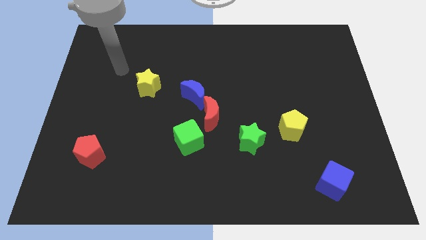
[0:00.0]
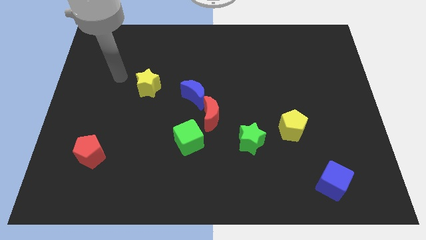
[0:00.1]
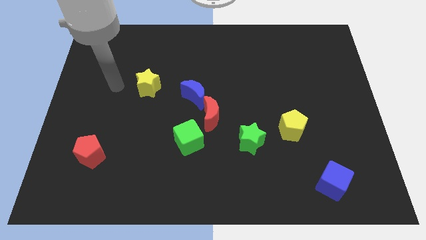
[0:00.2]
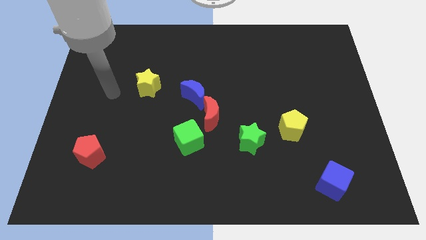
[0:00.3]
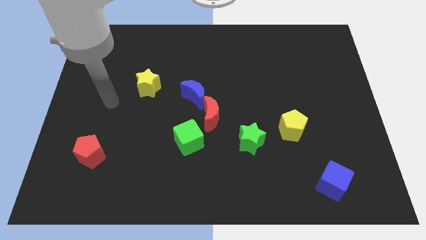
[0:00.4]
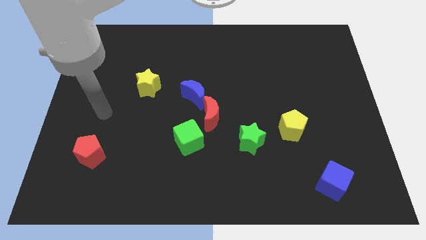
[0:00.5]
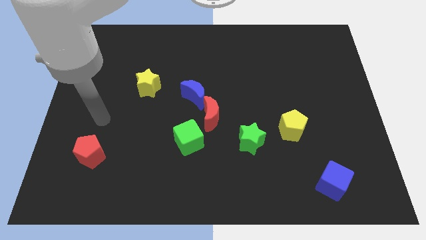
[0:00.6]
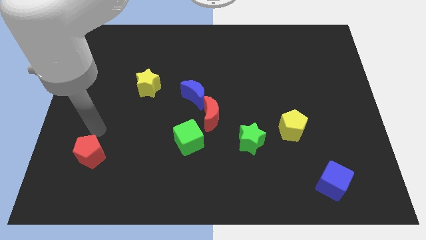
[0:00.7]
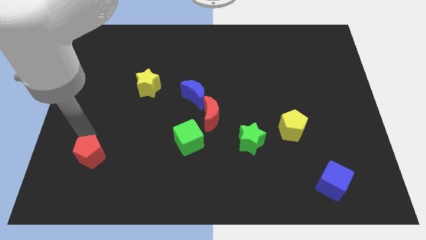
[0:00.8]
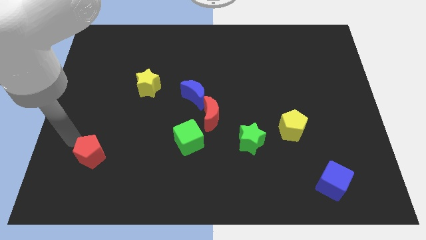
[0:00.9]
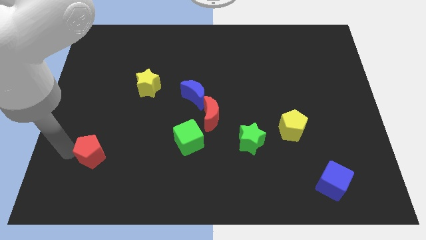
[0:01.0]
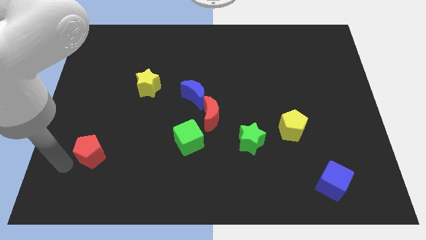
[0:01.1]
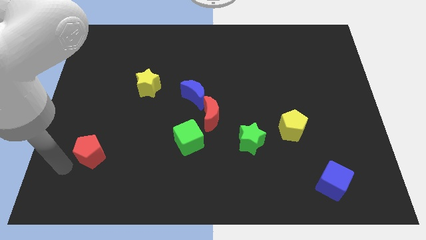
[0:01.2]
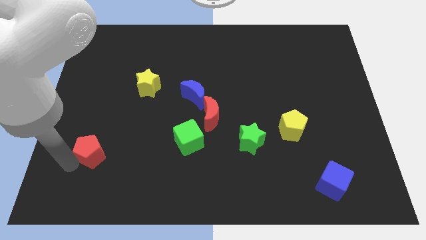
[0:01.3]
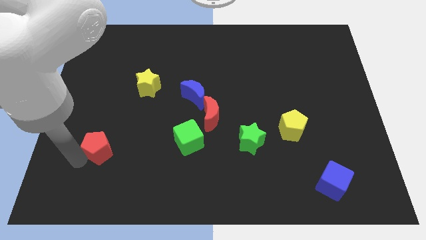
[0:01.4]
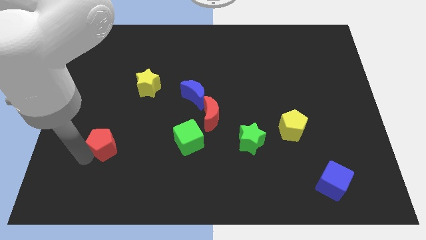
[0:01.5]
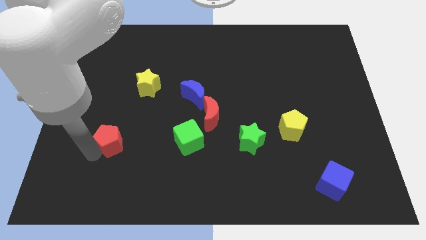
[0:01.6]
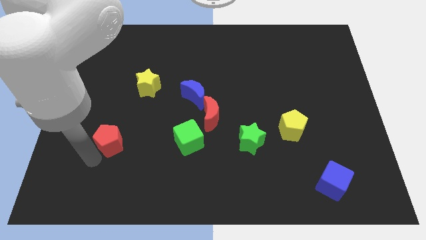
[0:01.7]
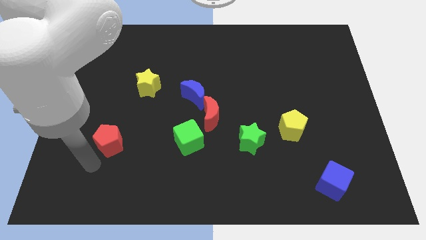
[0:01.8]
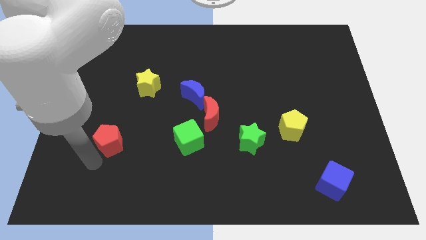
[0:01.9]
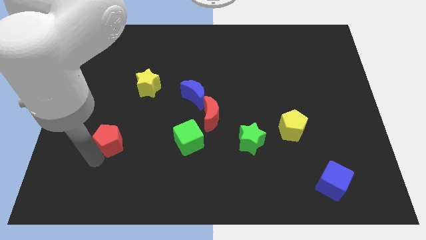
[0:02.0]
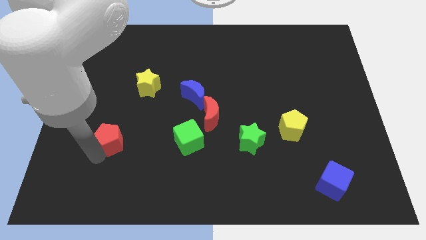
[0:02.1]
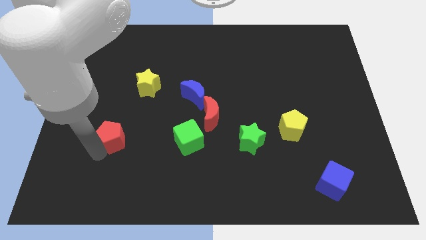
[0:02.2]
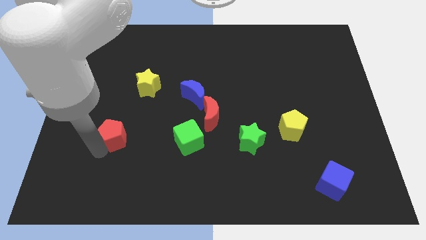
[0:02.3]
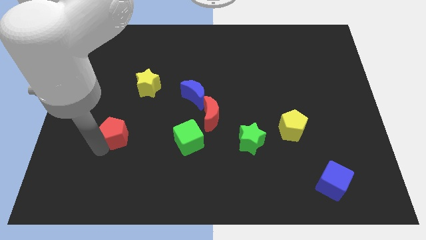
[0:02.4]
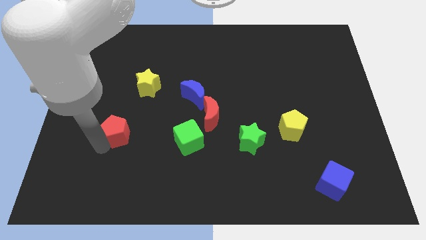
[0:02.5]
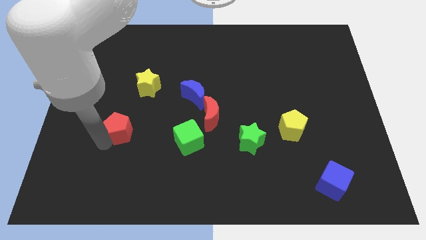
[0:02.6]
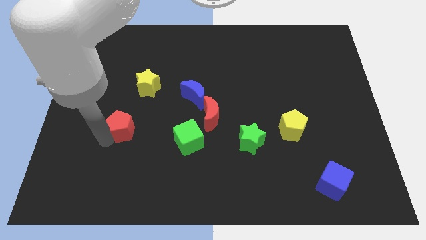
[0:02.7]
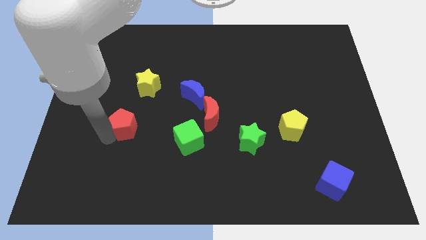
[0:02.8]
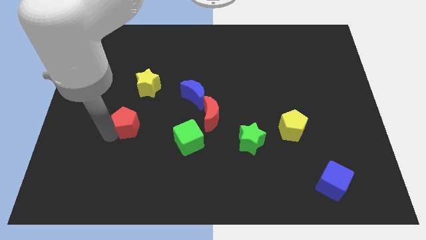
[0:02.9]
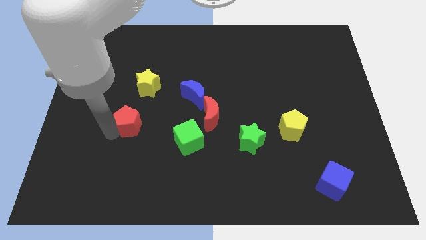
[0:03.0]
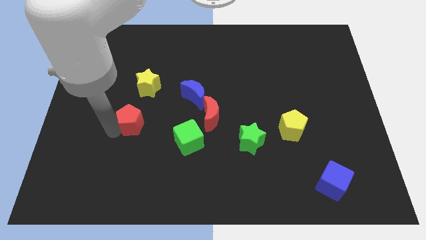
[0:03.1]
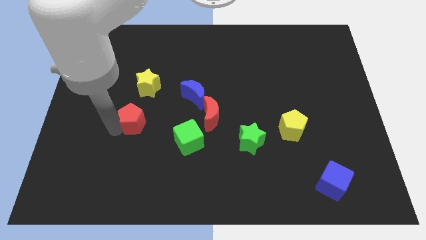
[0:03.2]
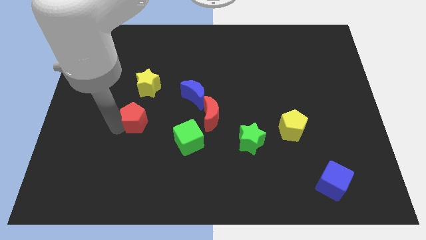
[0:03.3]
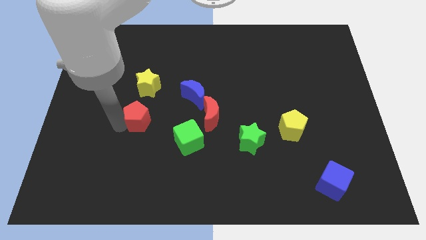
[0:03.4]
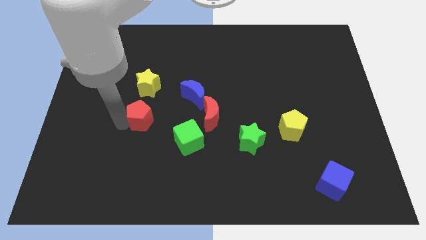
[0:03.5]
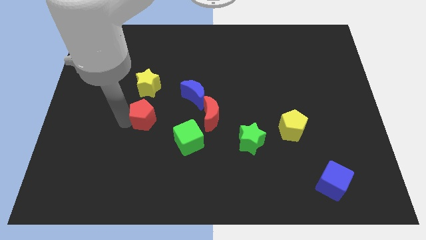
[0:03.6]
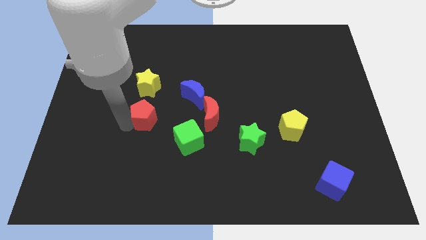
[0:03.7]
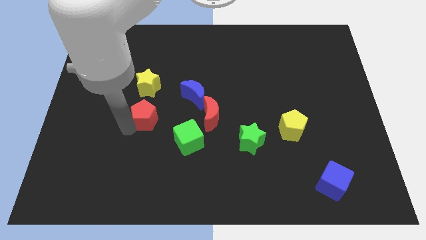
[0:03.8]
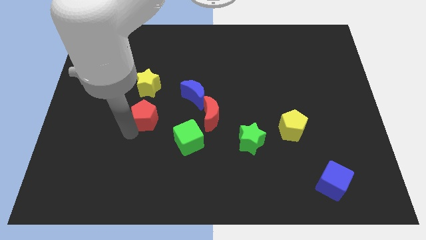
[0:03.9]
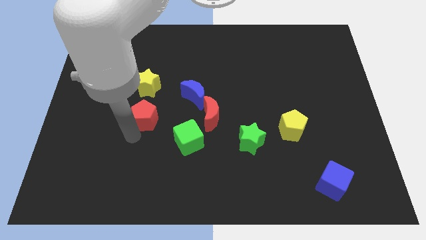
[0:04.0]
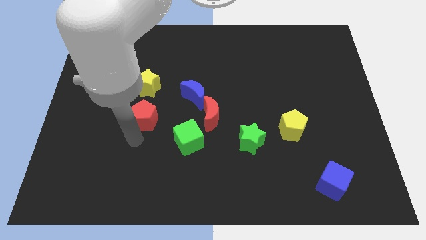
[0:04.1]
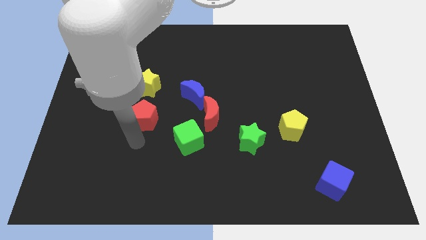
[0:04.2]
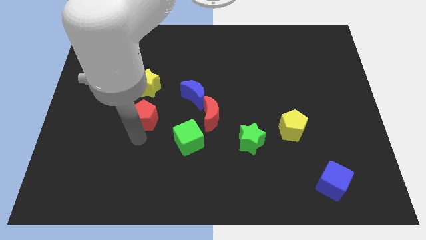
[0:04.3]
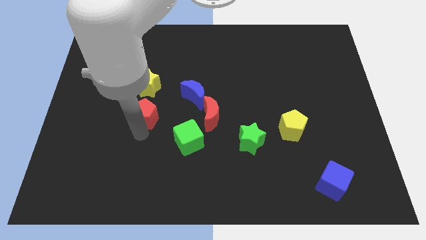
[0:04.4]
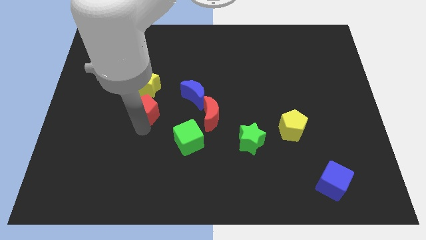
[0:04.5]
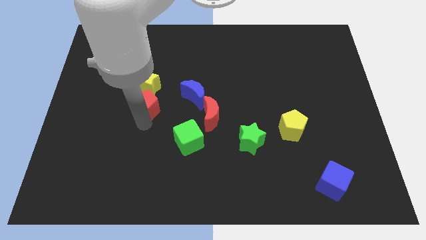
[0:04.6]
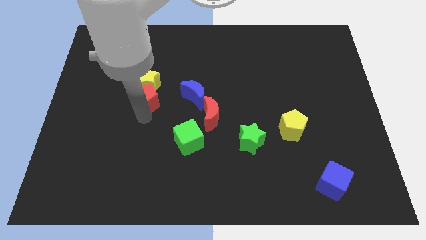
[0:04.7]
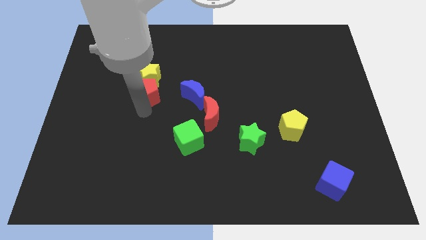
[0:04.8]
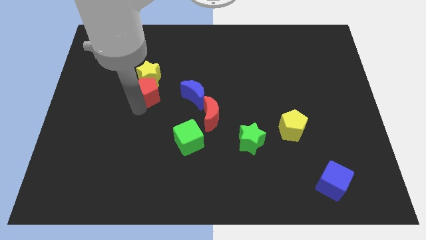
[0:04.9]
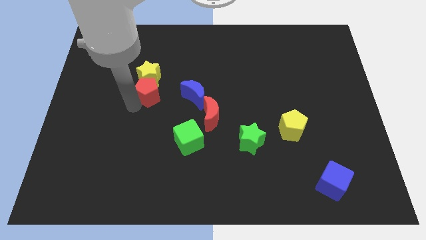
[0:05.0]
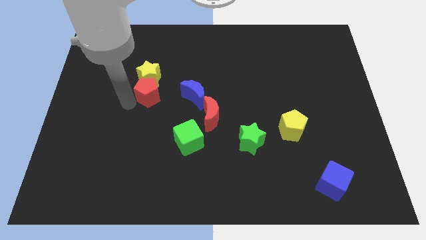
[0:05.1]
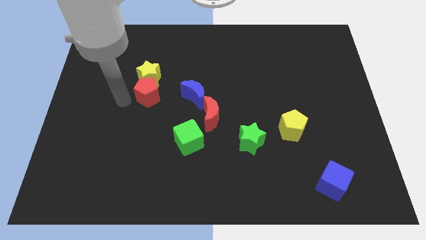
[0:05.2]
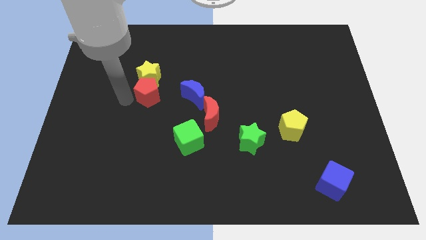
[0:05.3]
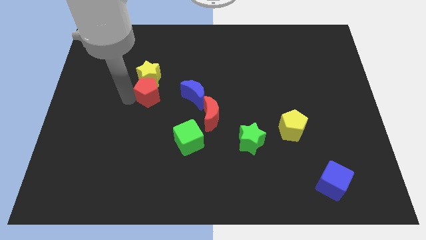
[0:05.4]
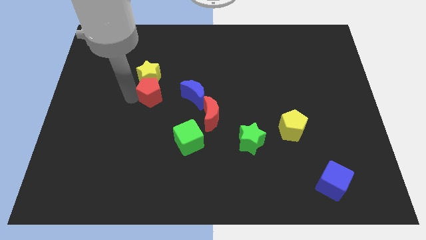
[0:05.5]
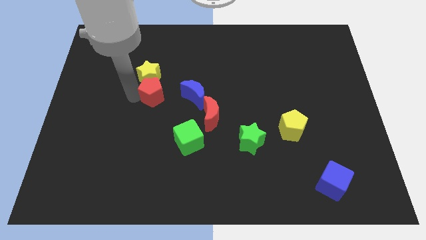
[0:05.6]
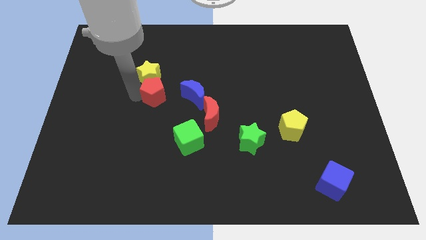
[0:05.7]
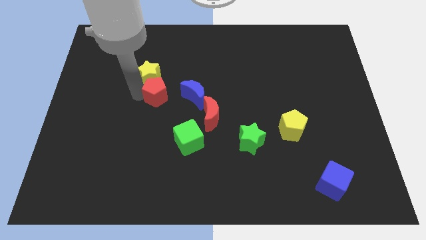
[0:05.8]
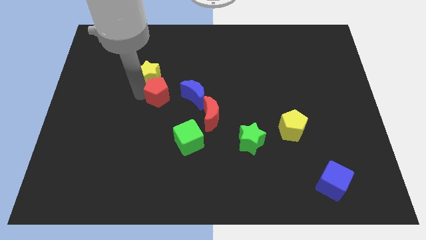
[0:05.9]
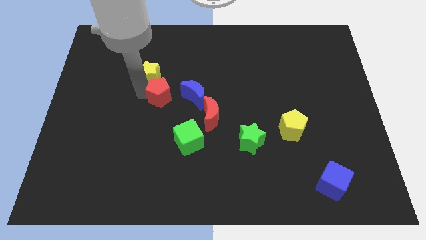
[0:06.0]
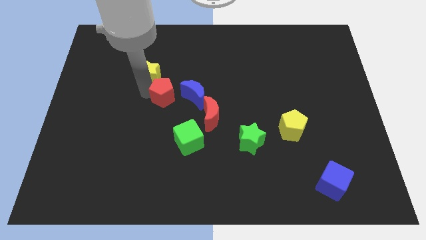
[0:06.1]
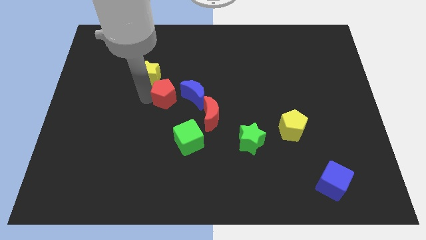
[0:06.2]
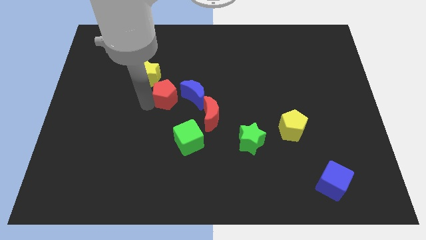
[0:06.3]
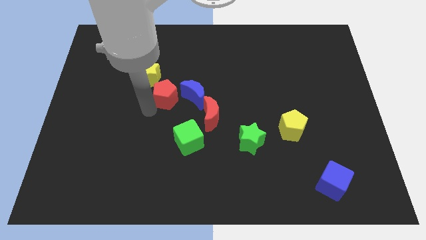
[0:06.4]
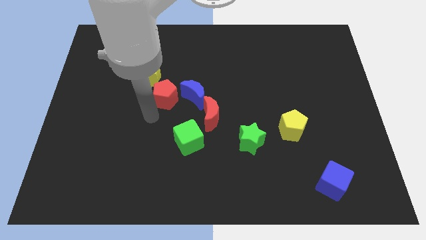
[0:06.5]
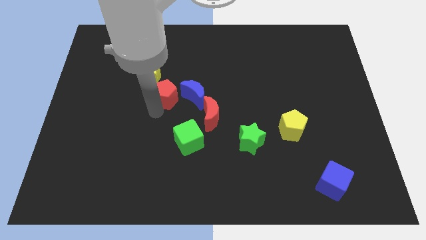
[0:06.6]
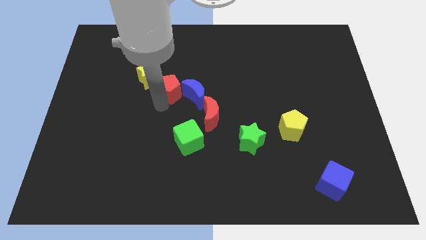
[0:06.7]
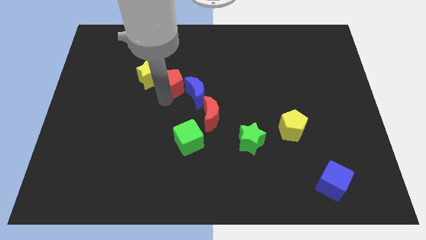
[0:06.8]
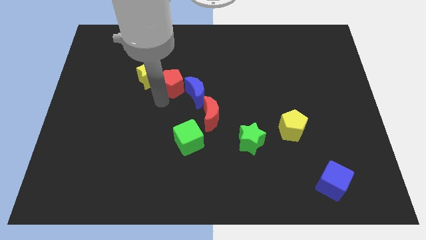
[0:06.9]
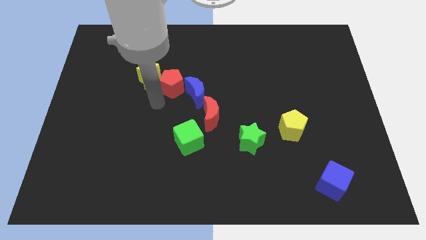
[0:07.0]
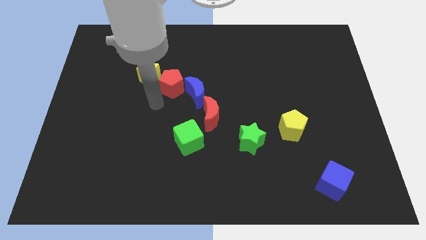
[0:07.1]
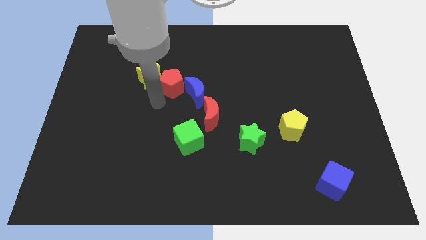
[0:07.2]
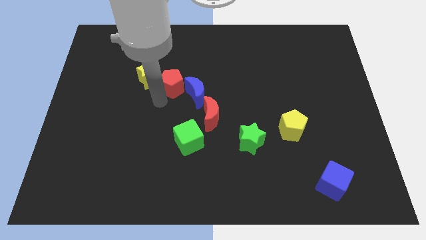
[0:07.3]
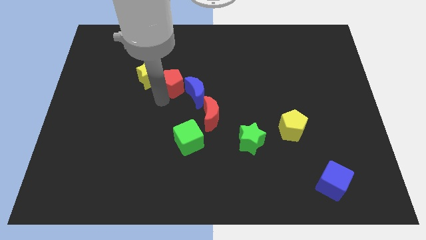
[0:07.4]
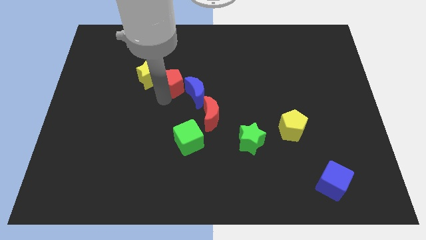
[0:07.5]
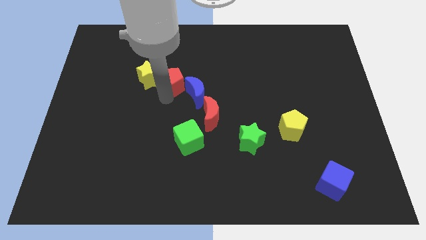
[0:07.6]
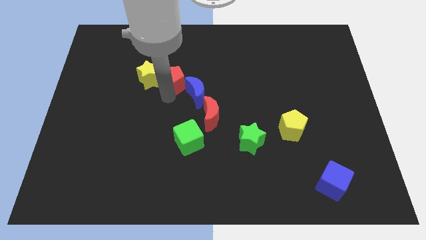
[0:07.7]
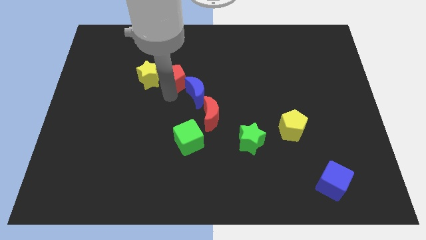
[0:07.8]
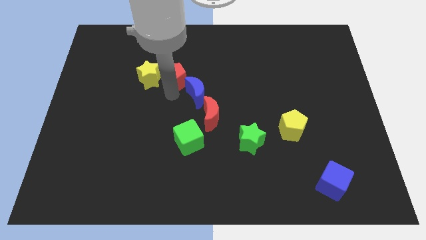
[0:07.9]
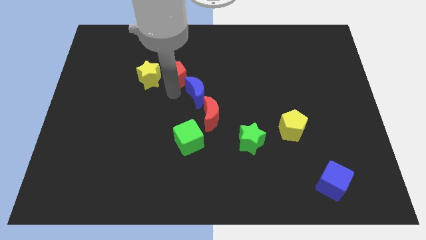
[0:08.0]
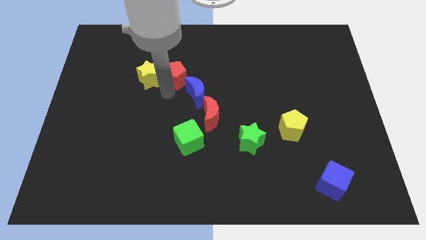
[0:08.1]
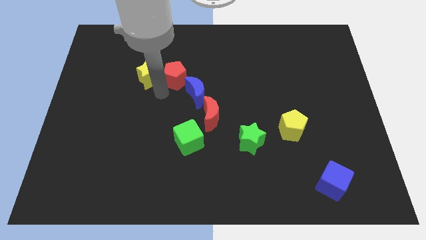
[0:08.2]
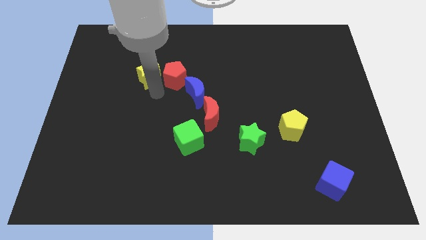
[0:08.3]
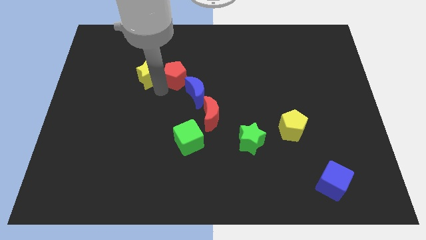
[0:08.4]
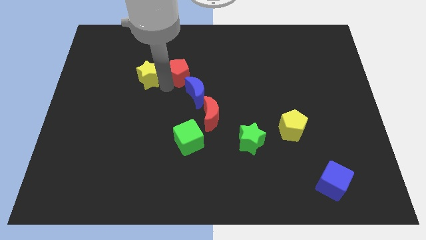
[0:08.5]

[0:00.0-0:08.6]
move the red pentagon above the blue moon
